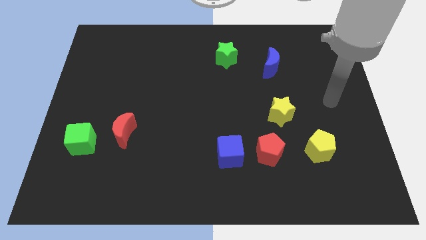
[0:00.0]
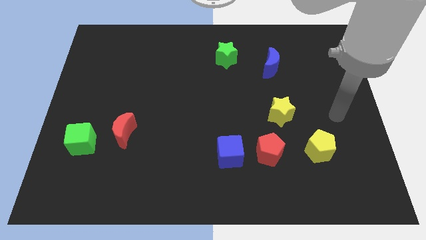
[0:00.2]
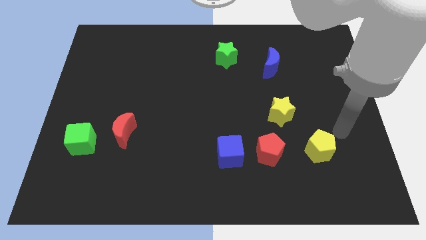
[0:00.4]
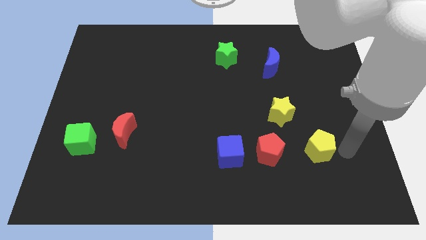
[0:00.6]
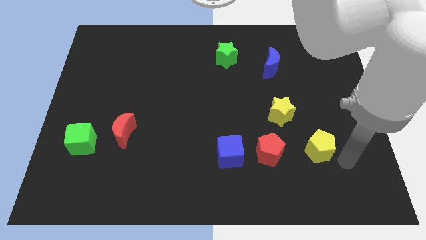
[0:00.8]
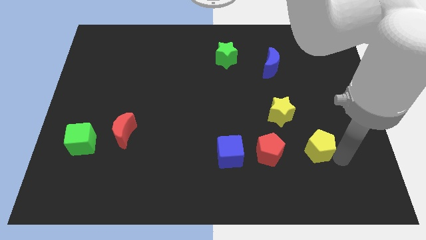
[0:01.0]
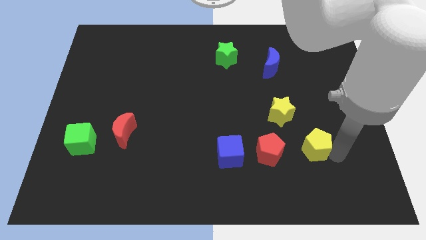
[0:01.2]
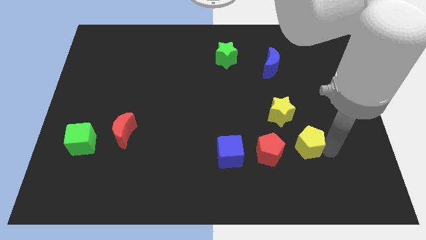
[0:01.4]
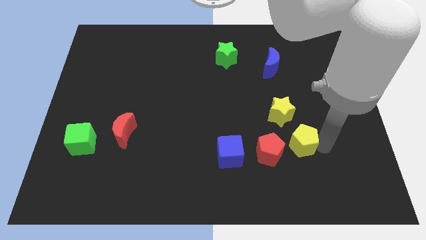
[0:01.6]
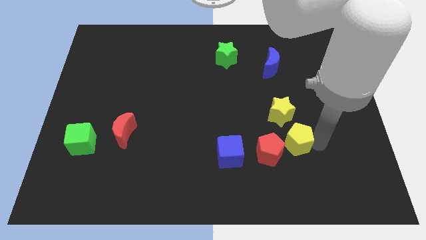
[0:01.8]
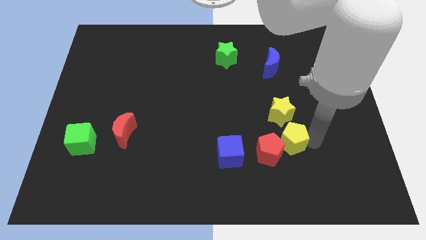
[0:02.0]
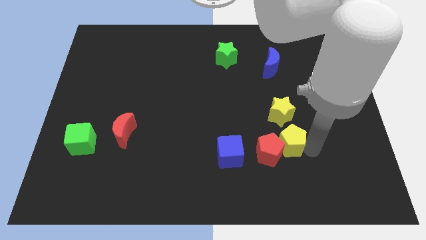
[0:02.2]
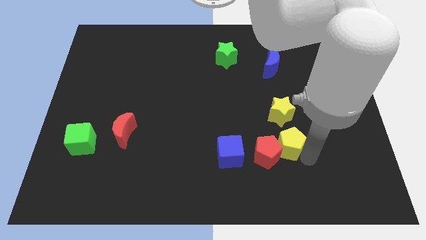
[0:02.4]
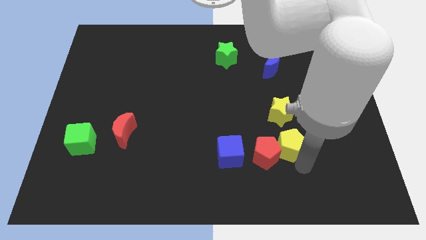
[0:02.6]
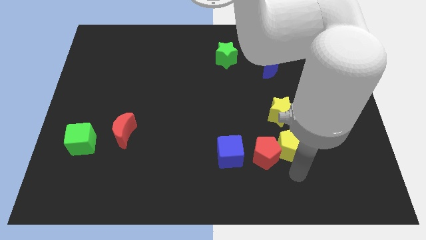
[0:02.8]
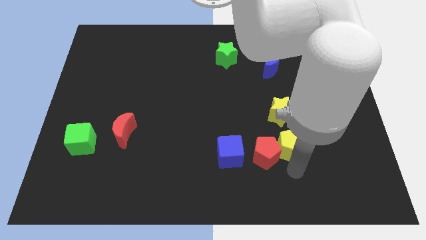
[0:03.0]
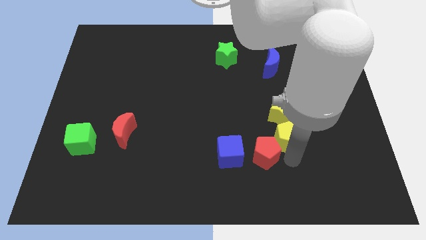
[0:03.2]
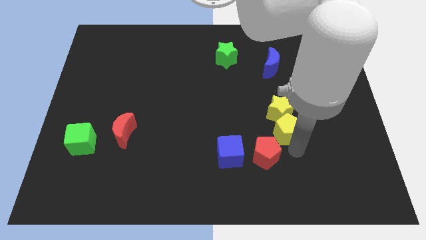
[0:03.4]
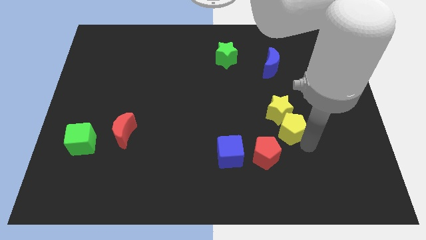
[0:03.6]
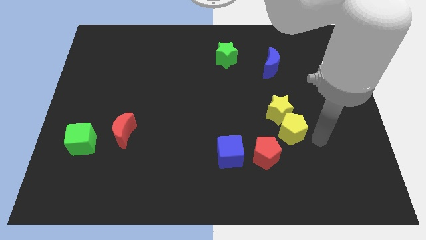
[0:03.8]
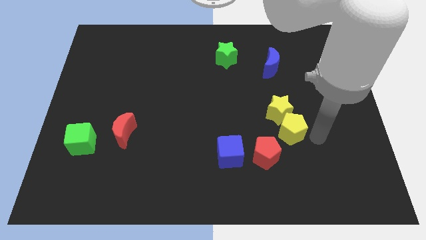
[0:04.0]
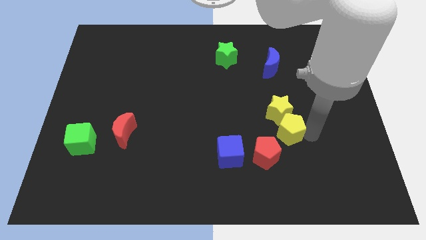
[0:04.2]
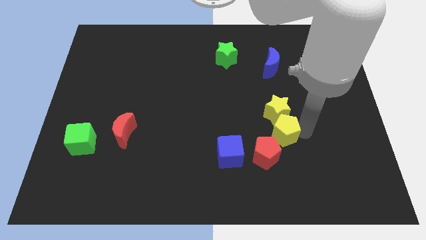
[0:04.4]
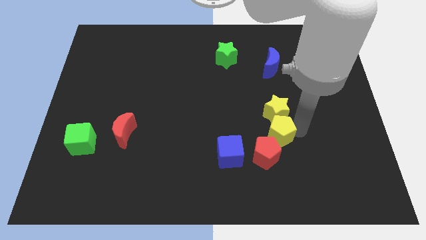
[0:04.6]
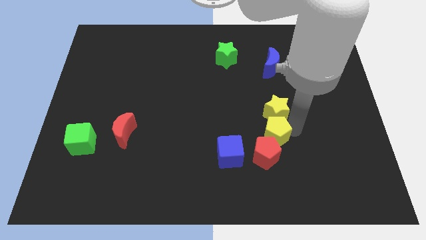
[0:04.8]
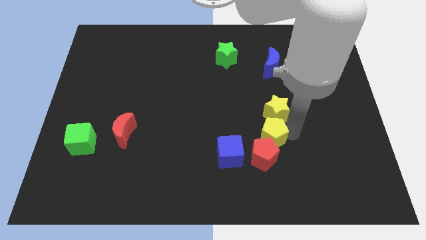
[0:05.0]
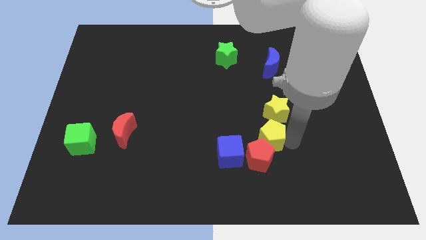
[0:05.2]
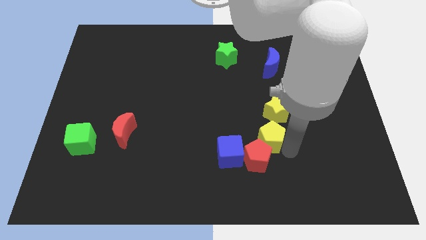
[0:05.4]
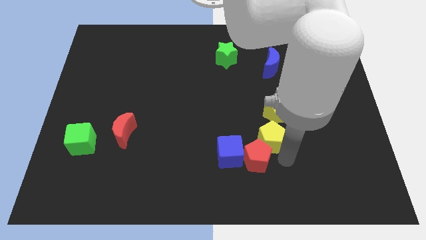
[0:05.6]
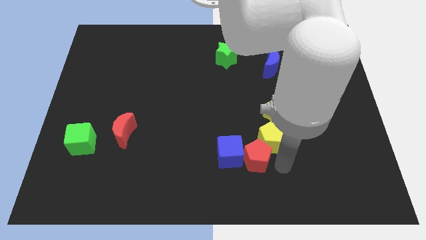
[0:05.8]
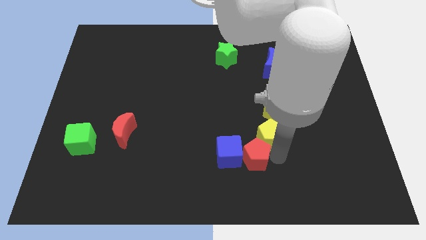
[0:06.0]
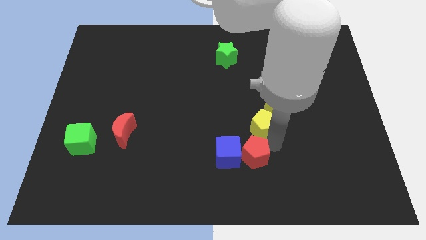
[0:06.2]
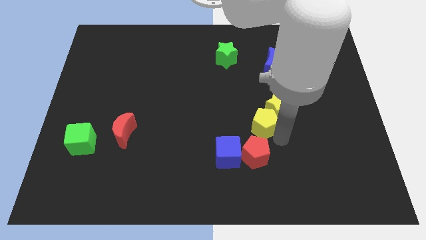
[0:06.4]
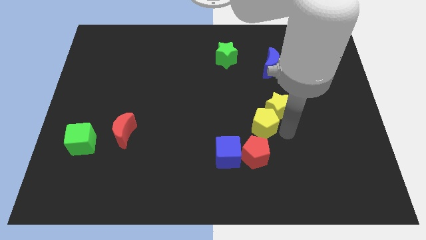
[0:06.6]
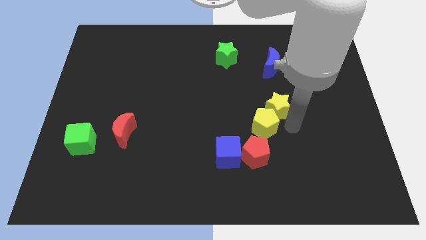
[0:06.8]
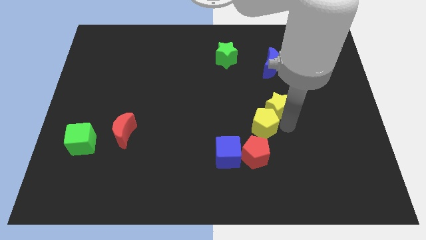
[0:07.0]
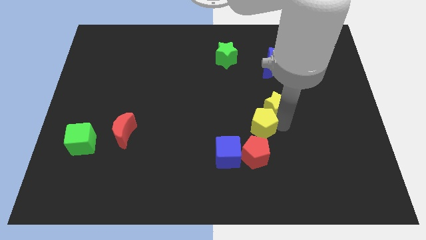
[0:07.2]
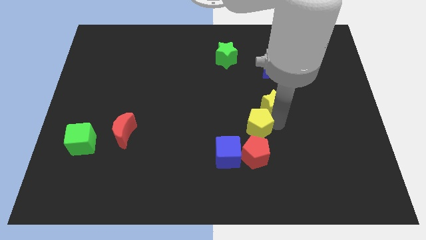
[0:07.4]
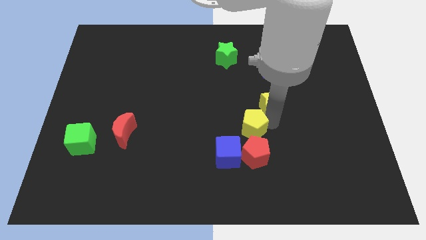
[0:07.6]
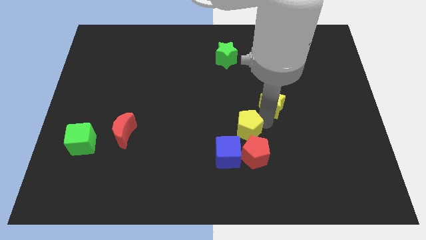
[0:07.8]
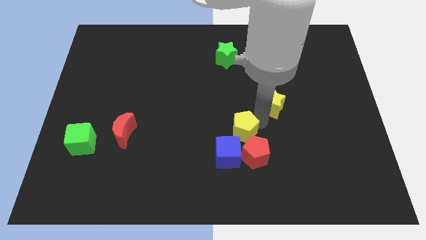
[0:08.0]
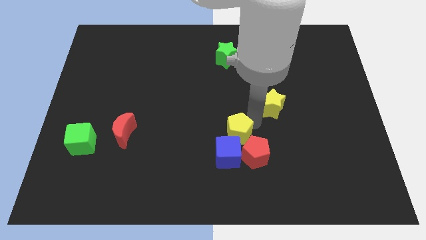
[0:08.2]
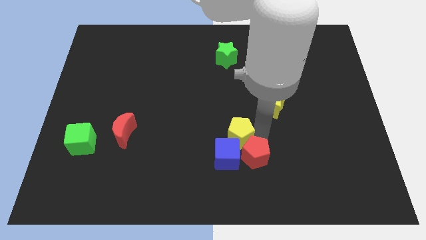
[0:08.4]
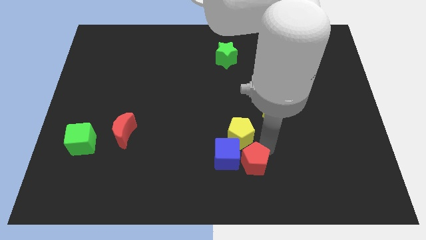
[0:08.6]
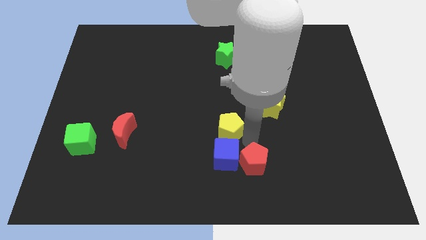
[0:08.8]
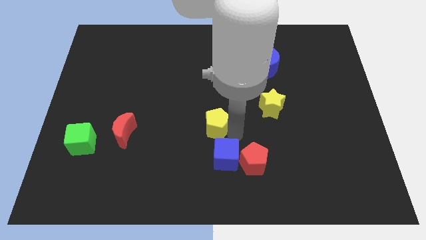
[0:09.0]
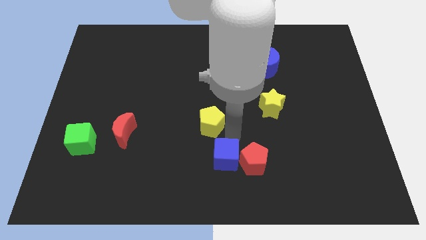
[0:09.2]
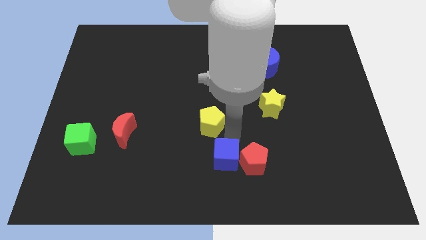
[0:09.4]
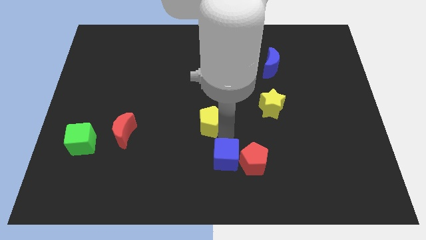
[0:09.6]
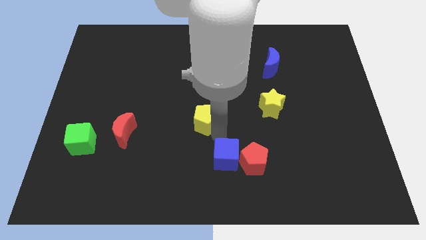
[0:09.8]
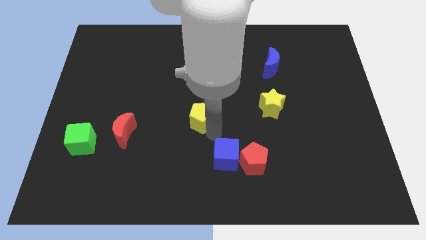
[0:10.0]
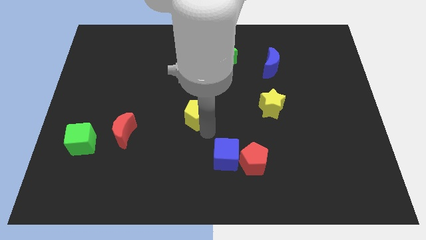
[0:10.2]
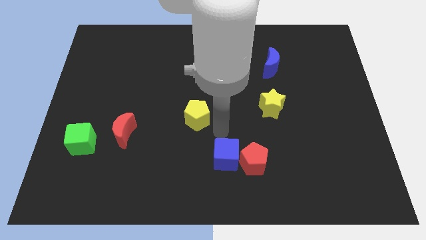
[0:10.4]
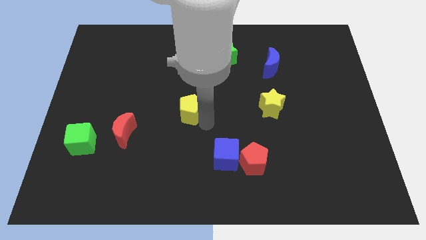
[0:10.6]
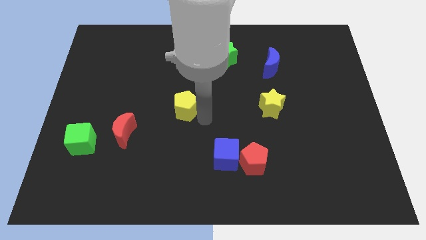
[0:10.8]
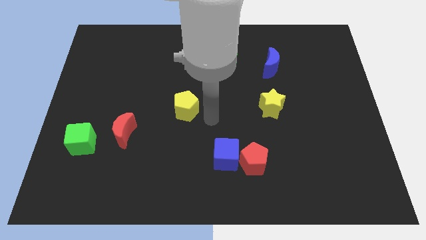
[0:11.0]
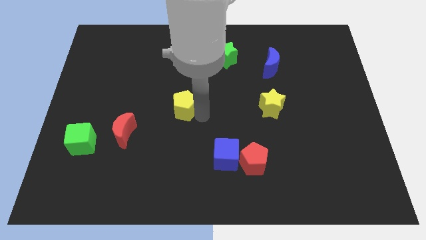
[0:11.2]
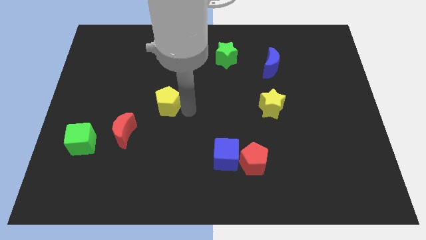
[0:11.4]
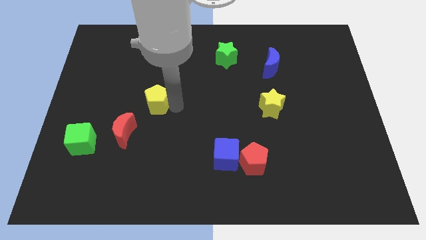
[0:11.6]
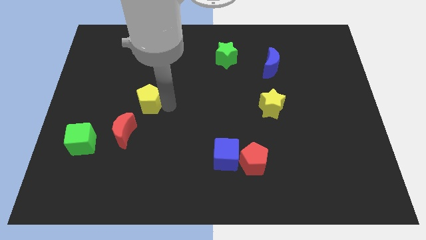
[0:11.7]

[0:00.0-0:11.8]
put the yellow pentagon to the top side of the red moon

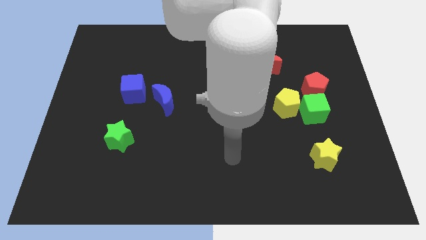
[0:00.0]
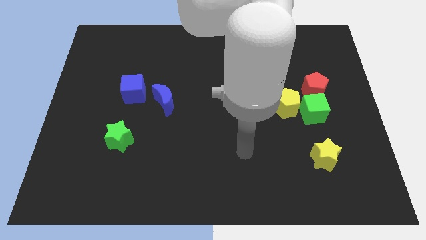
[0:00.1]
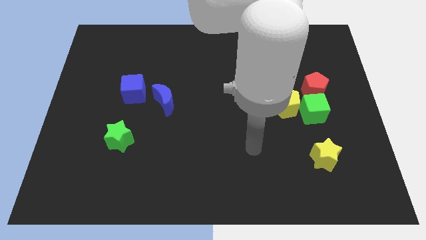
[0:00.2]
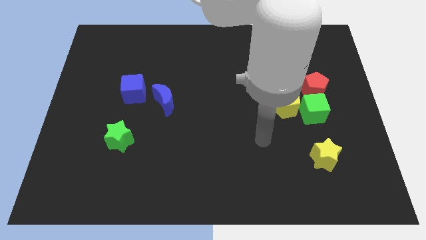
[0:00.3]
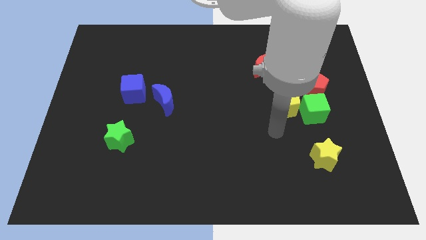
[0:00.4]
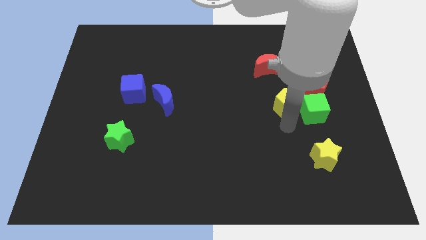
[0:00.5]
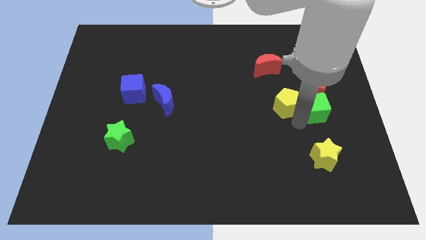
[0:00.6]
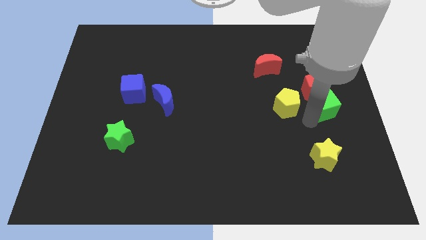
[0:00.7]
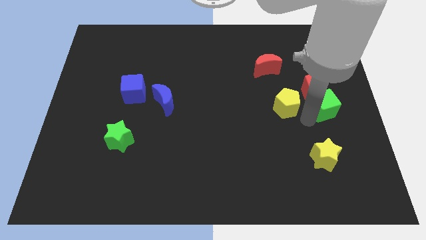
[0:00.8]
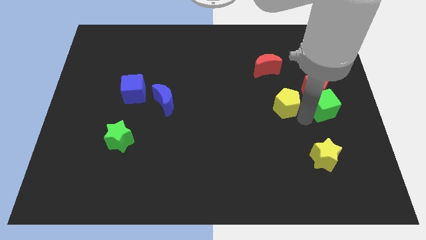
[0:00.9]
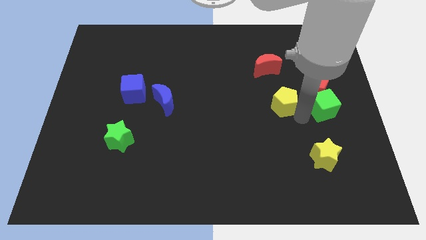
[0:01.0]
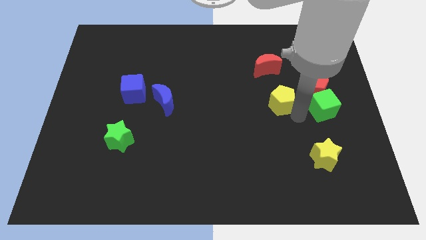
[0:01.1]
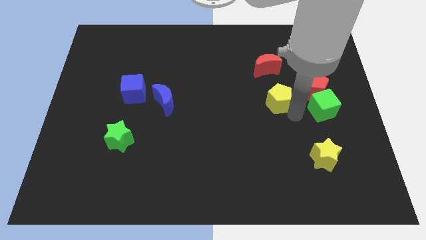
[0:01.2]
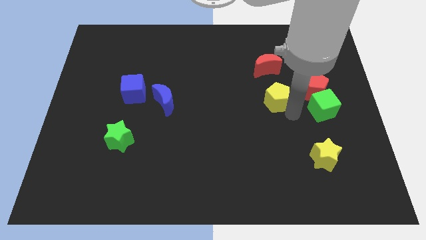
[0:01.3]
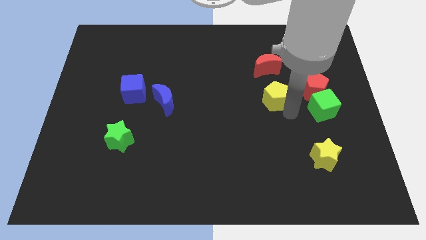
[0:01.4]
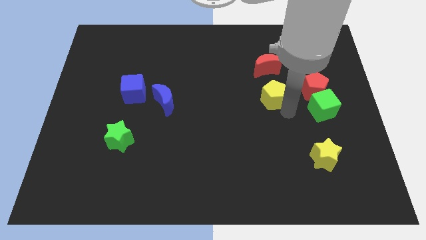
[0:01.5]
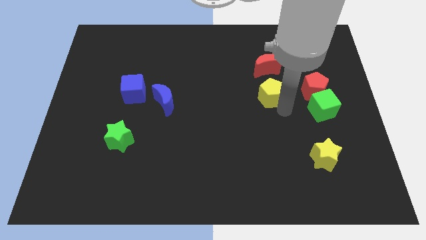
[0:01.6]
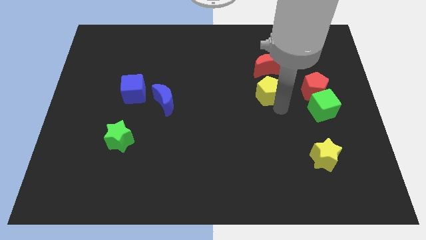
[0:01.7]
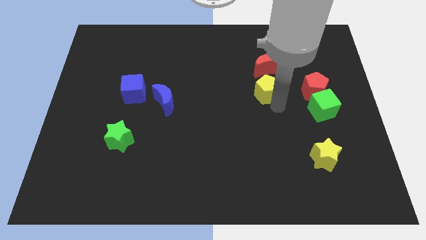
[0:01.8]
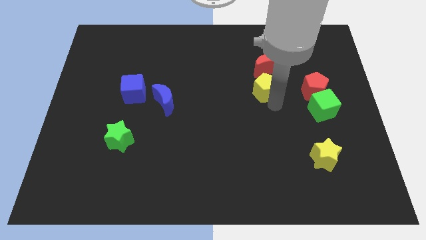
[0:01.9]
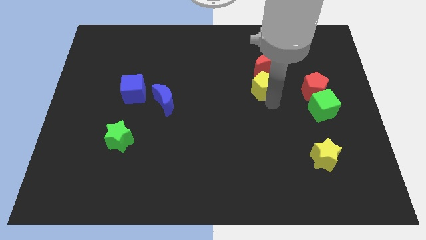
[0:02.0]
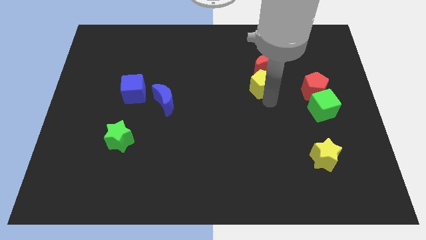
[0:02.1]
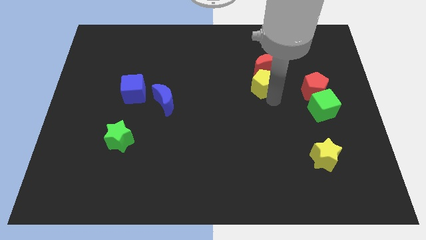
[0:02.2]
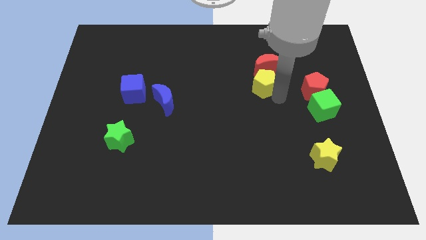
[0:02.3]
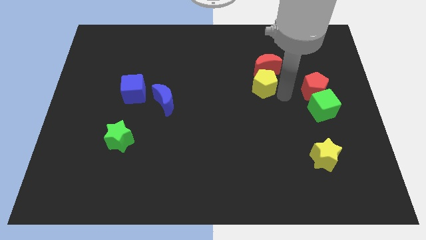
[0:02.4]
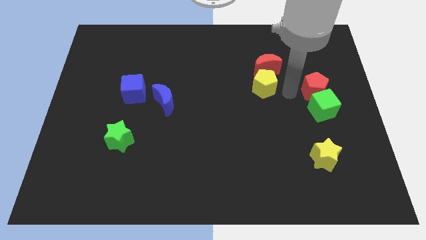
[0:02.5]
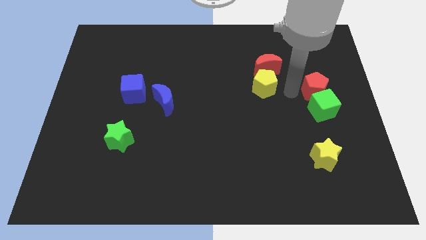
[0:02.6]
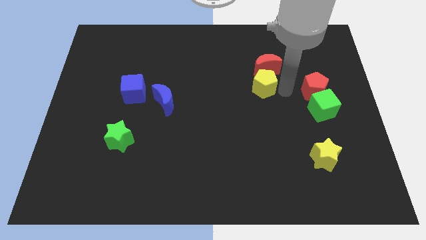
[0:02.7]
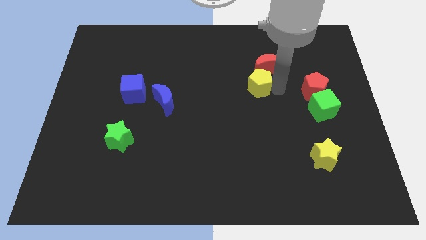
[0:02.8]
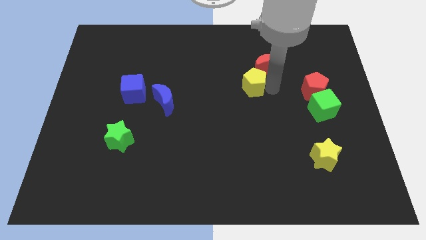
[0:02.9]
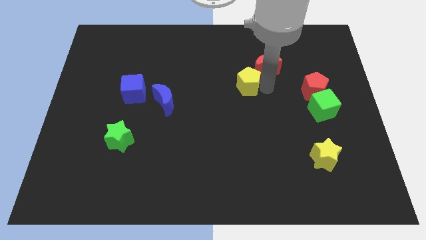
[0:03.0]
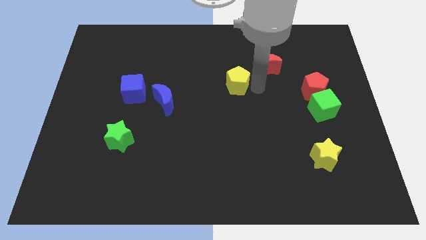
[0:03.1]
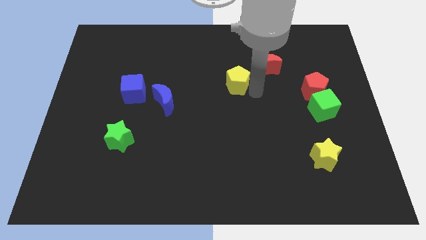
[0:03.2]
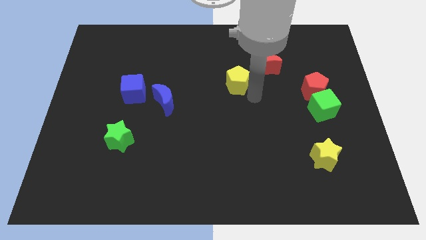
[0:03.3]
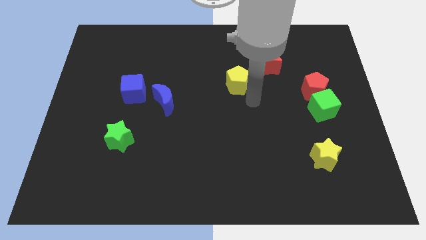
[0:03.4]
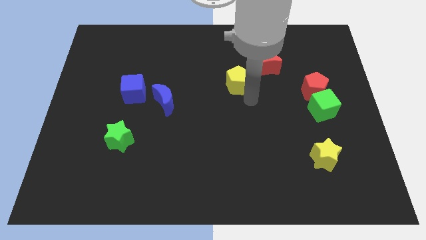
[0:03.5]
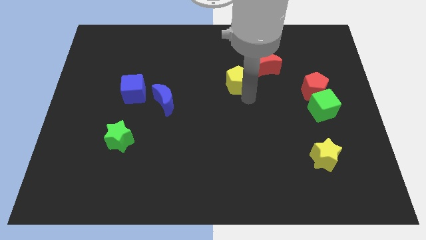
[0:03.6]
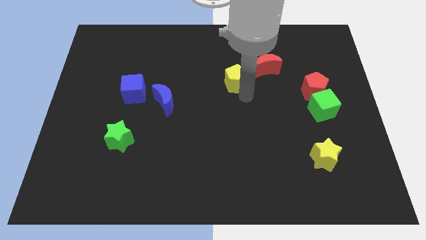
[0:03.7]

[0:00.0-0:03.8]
slide the yellow pentagon just left of the red moon
